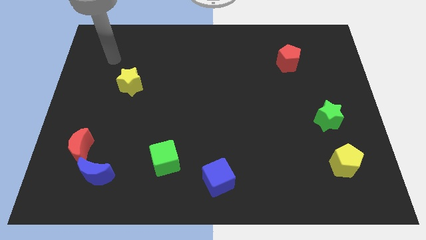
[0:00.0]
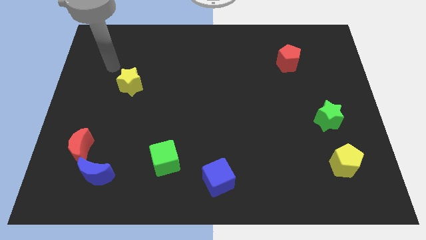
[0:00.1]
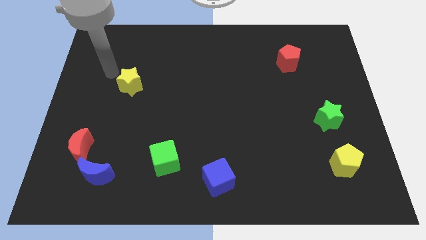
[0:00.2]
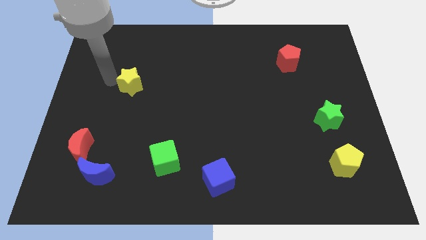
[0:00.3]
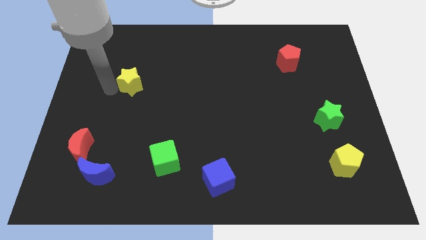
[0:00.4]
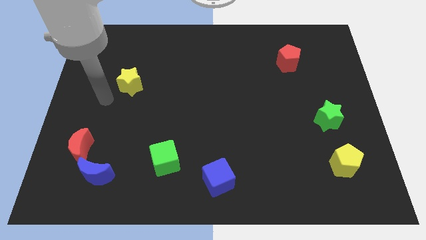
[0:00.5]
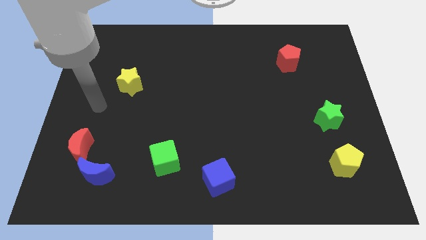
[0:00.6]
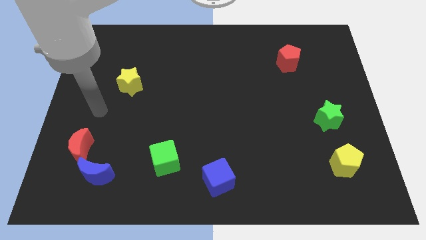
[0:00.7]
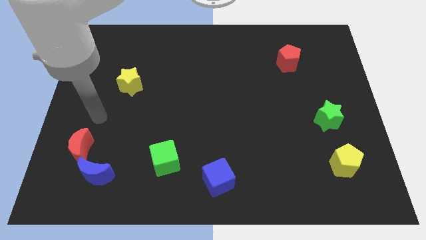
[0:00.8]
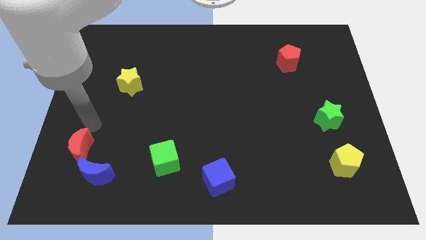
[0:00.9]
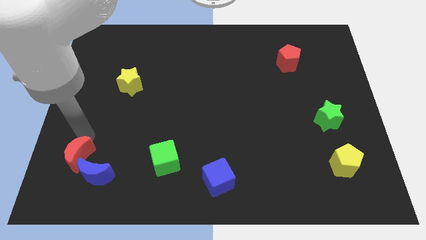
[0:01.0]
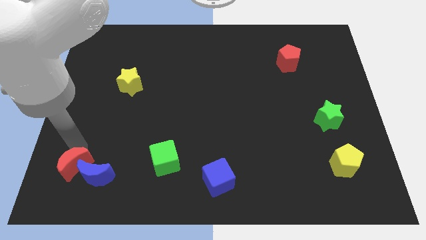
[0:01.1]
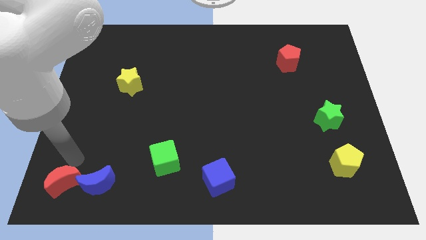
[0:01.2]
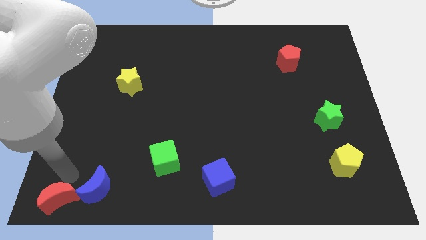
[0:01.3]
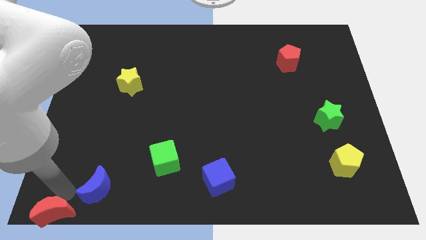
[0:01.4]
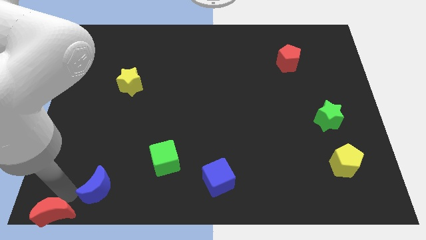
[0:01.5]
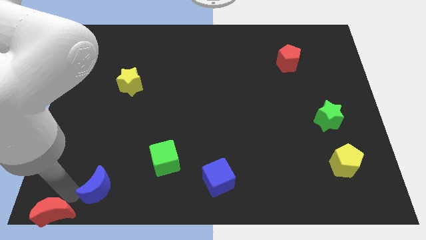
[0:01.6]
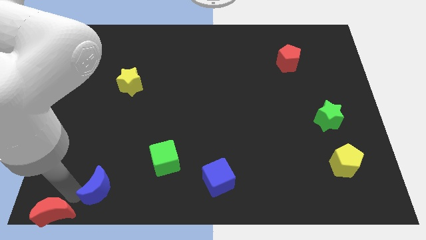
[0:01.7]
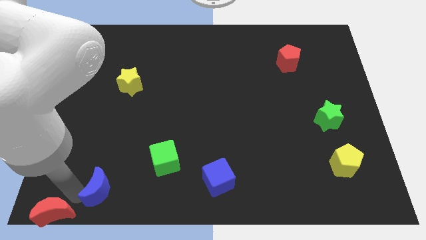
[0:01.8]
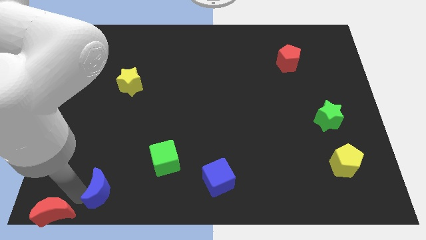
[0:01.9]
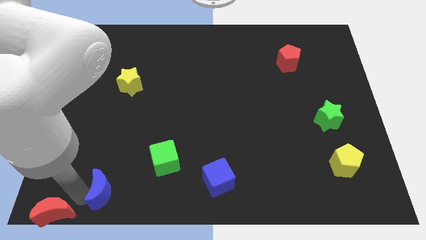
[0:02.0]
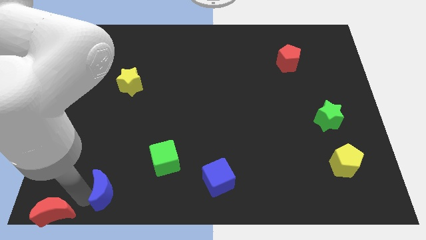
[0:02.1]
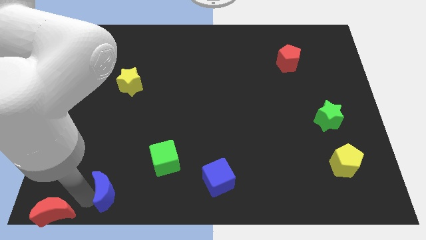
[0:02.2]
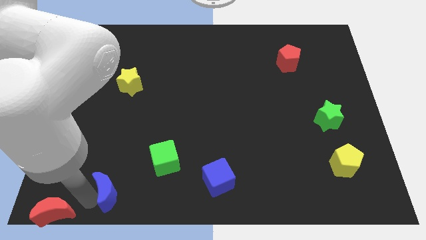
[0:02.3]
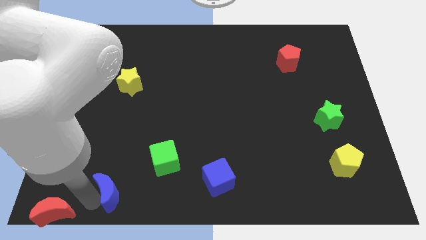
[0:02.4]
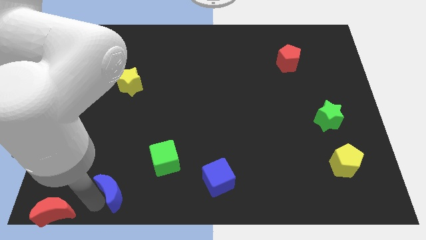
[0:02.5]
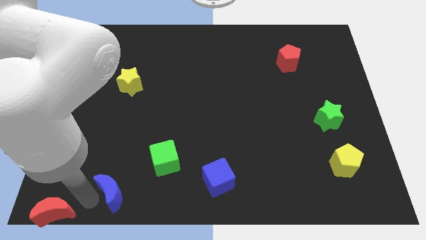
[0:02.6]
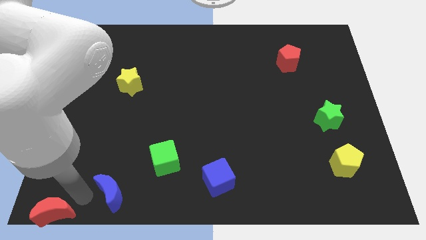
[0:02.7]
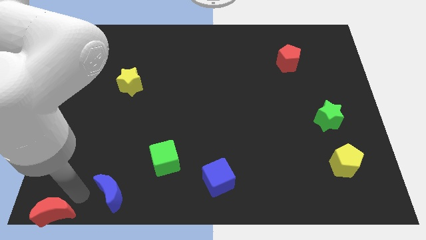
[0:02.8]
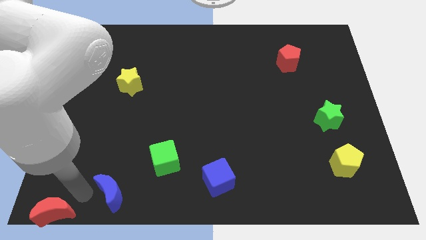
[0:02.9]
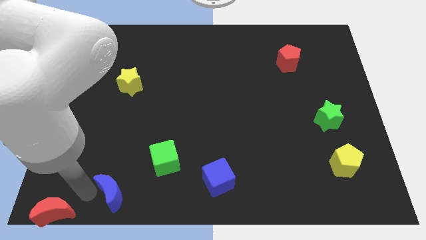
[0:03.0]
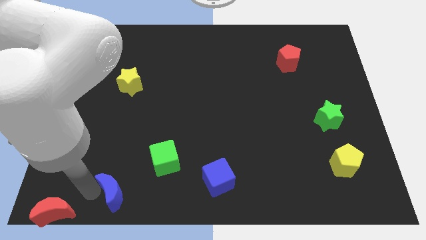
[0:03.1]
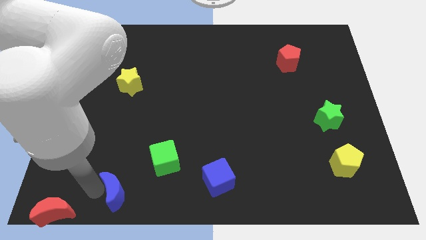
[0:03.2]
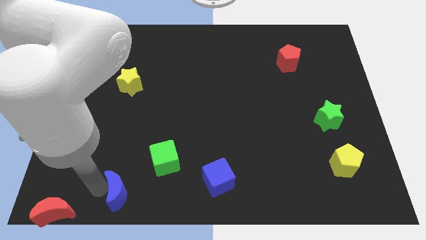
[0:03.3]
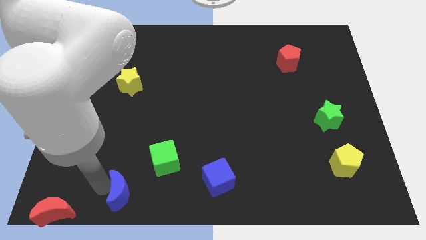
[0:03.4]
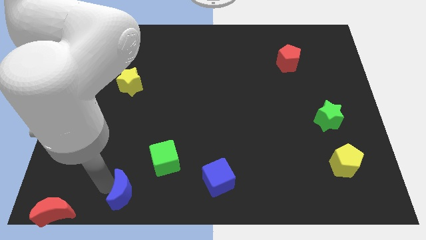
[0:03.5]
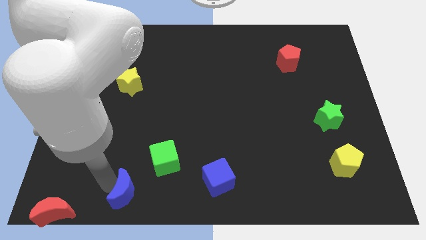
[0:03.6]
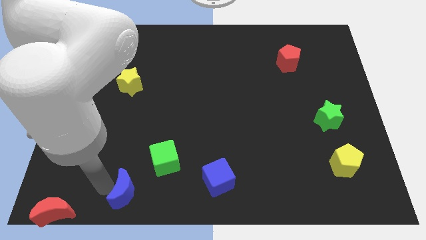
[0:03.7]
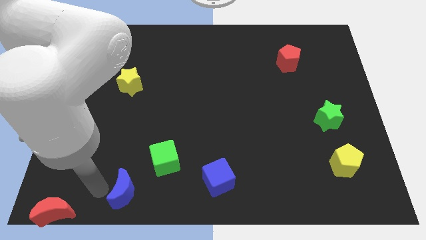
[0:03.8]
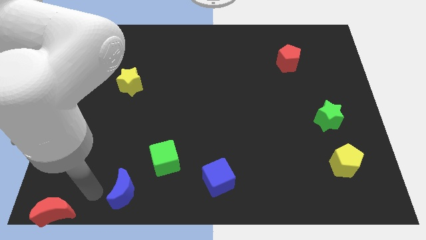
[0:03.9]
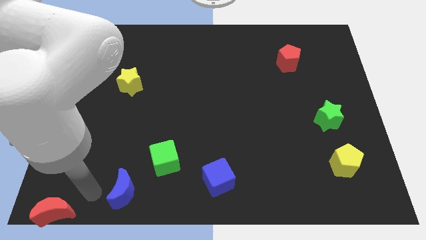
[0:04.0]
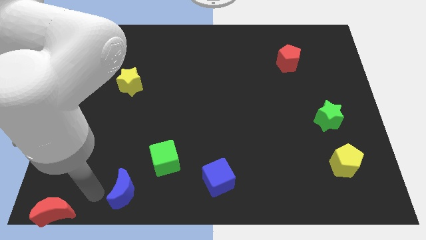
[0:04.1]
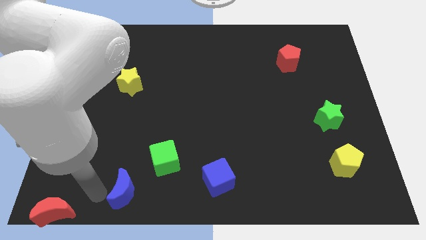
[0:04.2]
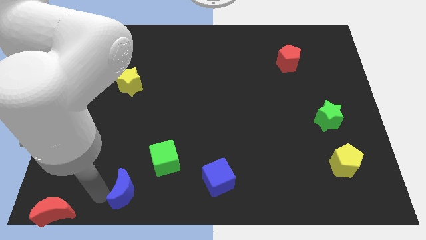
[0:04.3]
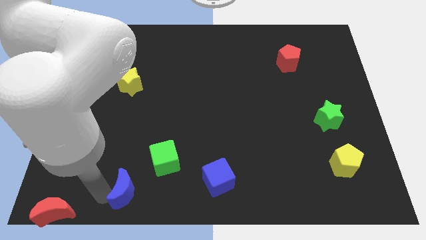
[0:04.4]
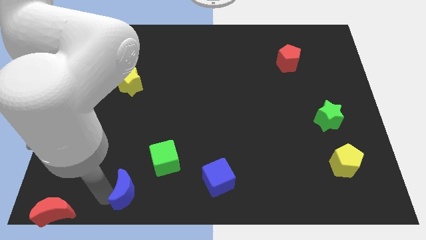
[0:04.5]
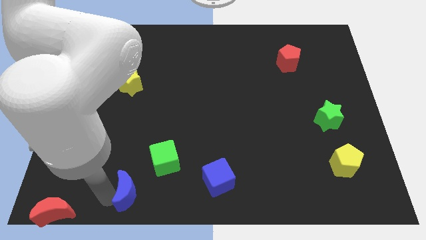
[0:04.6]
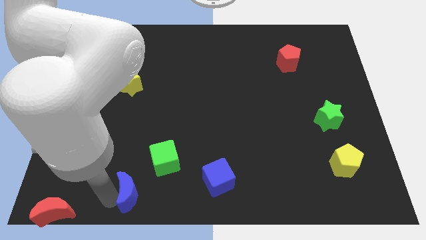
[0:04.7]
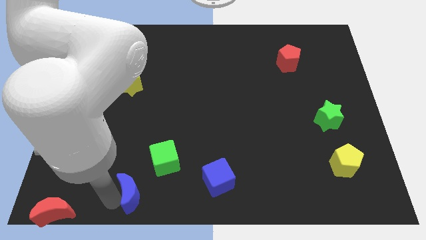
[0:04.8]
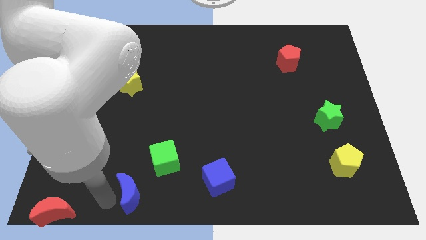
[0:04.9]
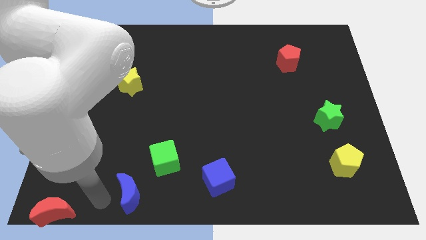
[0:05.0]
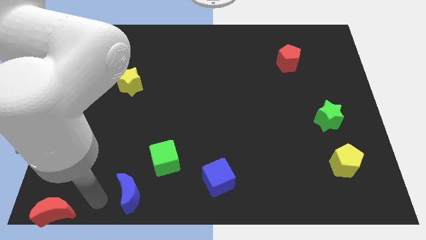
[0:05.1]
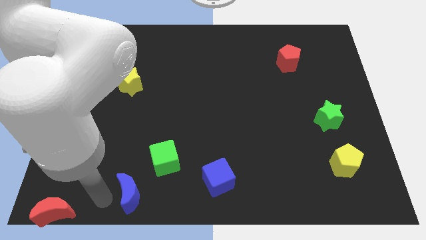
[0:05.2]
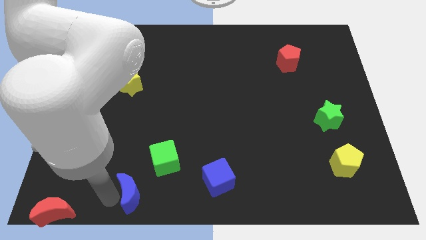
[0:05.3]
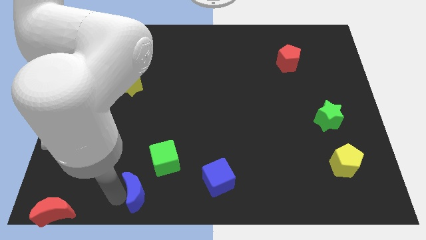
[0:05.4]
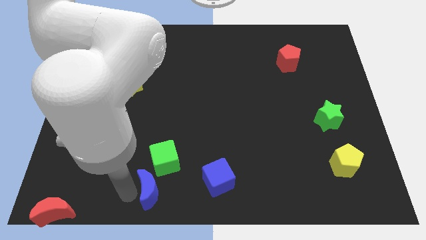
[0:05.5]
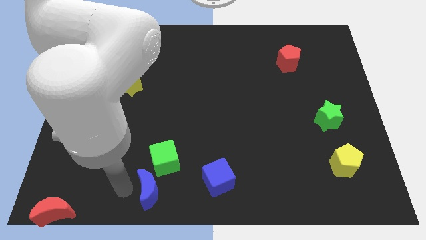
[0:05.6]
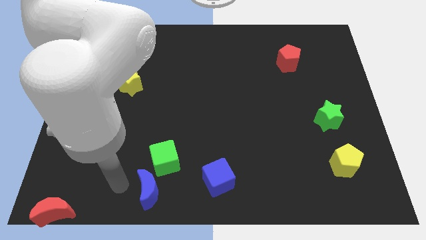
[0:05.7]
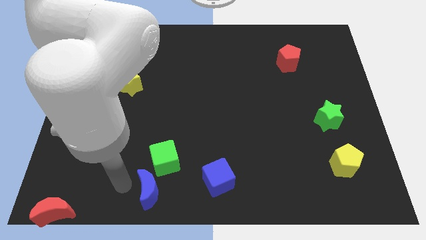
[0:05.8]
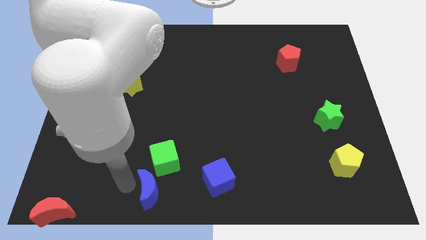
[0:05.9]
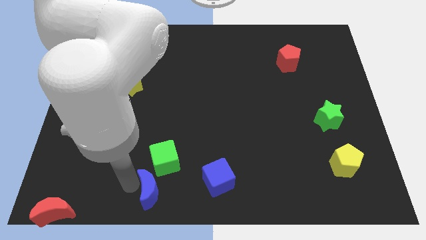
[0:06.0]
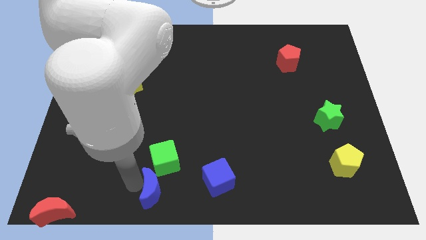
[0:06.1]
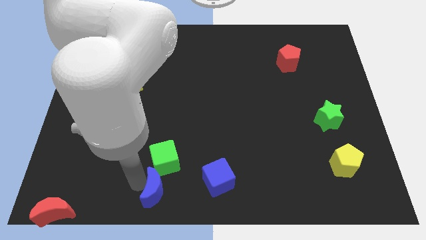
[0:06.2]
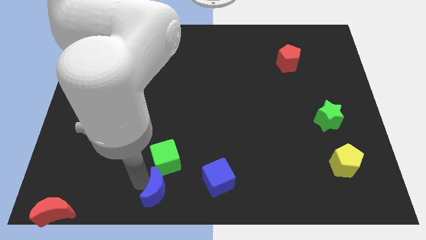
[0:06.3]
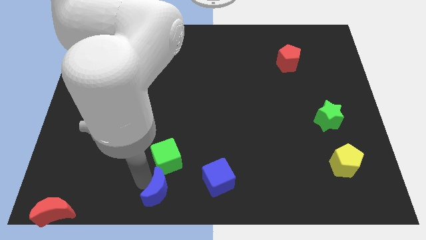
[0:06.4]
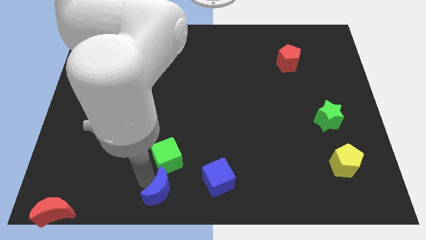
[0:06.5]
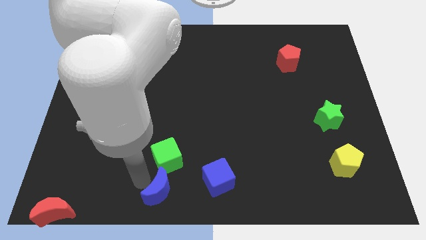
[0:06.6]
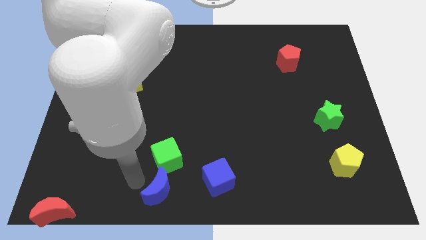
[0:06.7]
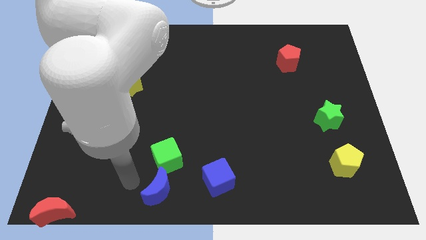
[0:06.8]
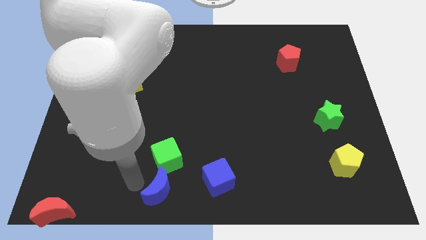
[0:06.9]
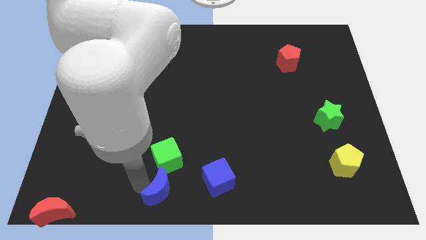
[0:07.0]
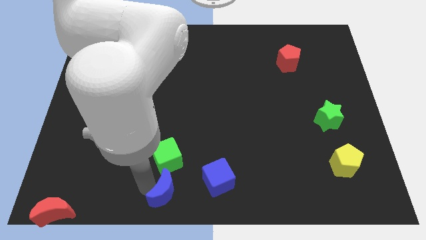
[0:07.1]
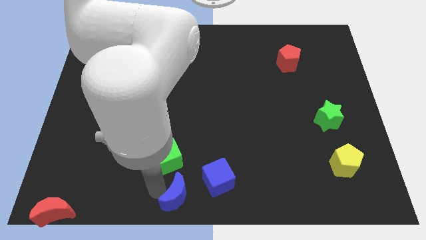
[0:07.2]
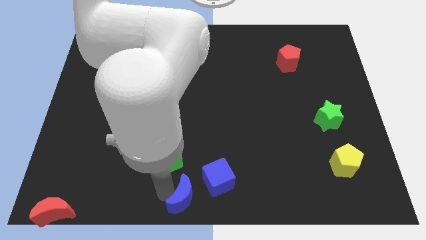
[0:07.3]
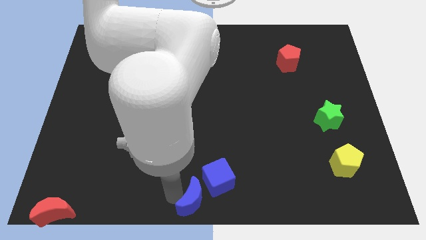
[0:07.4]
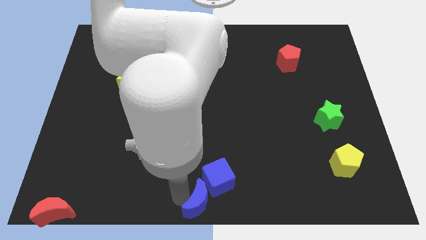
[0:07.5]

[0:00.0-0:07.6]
slide the blue moon to the right

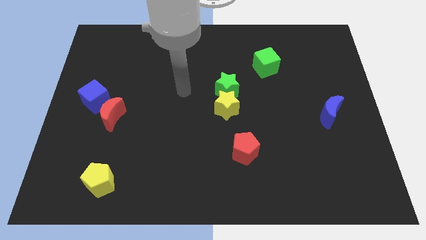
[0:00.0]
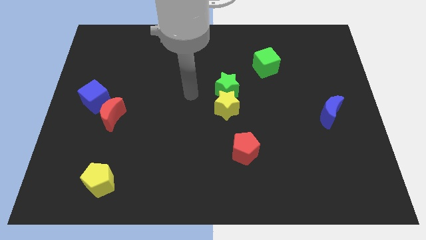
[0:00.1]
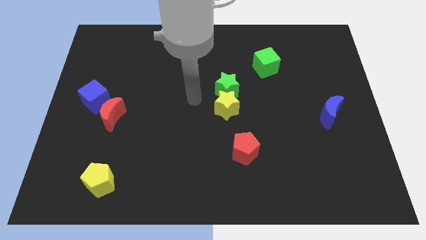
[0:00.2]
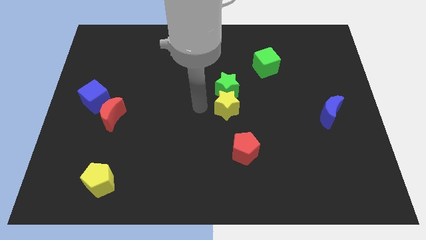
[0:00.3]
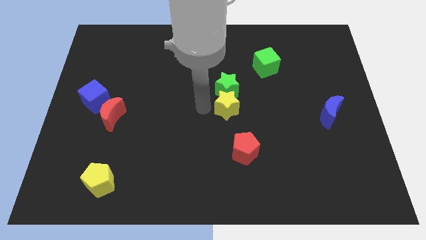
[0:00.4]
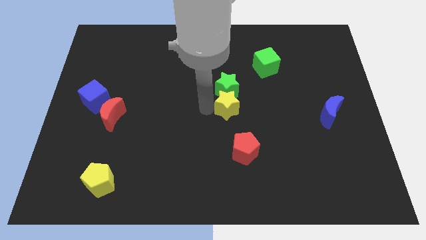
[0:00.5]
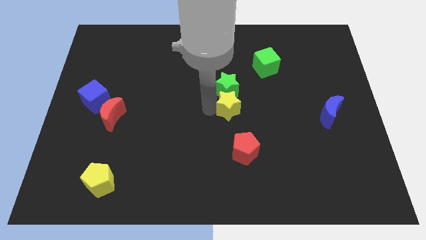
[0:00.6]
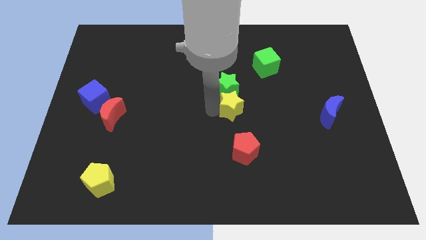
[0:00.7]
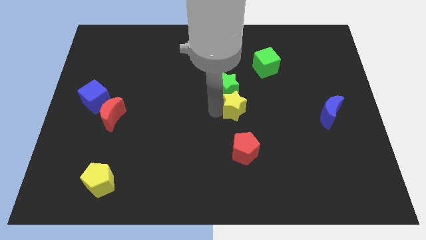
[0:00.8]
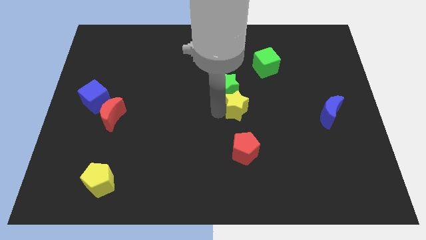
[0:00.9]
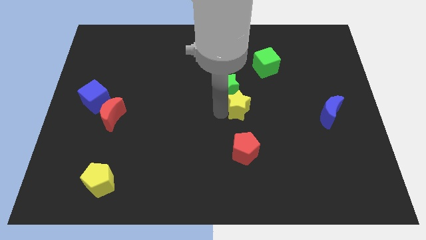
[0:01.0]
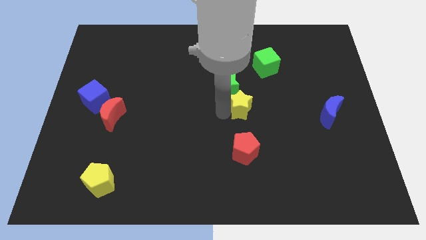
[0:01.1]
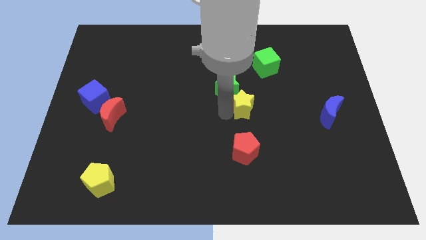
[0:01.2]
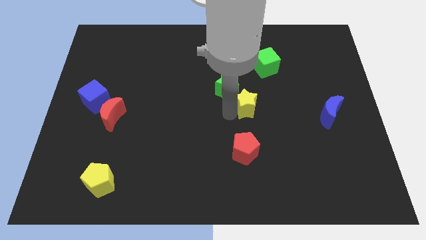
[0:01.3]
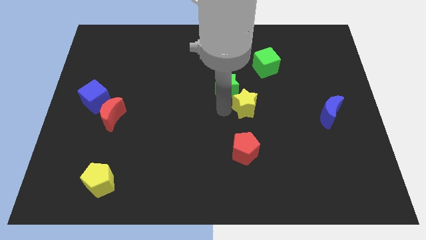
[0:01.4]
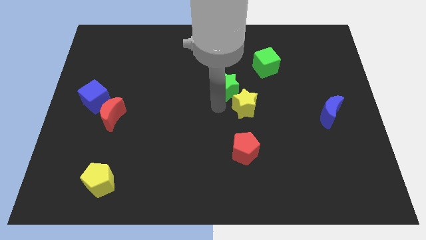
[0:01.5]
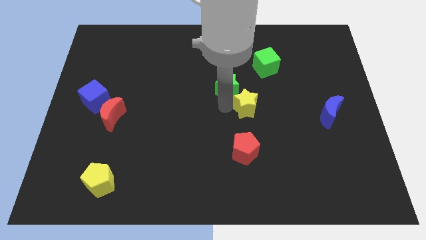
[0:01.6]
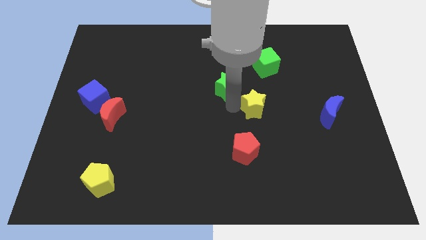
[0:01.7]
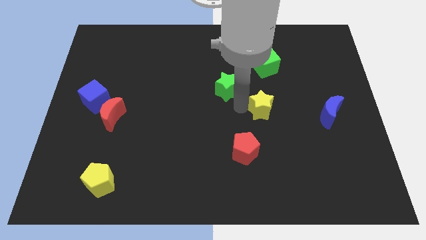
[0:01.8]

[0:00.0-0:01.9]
move the yellow star to the right a little
